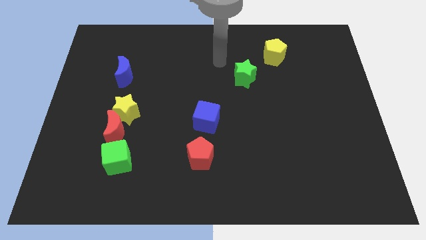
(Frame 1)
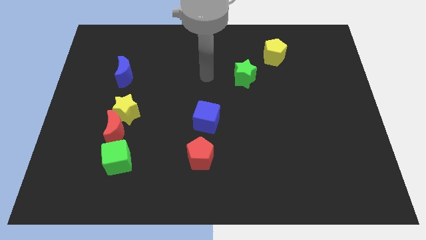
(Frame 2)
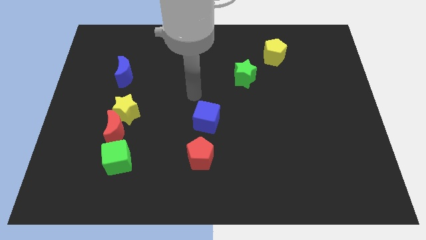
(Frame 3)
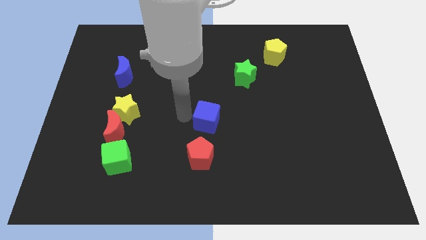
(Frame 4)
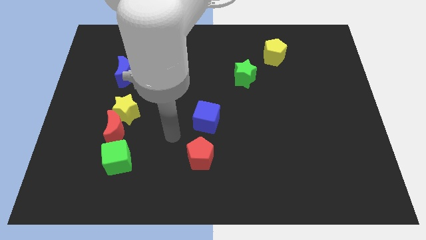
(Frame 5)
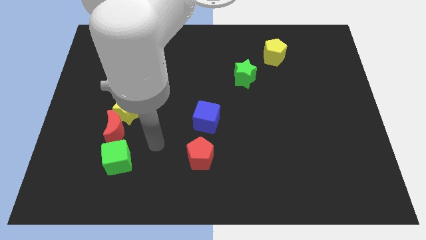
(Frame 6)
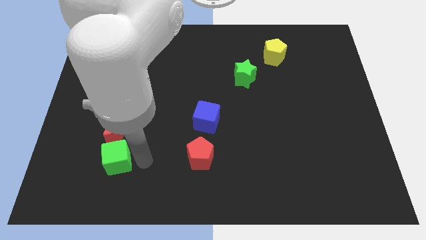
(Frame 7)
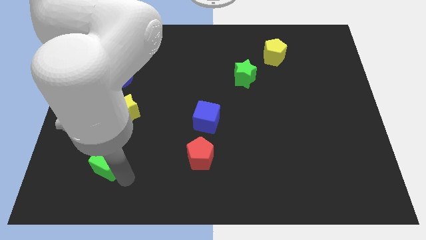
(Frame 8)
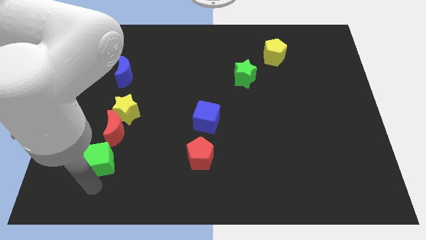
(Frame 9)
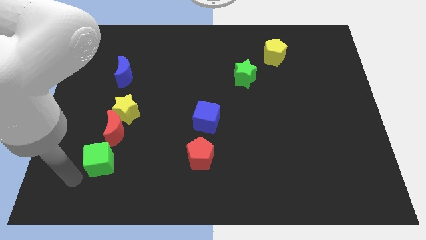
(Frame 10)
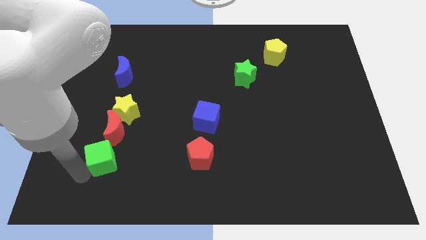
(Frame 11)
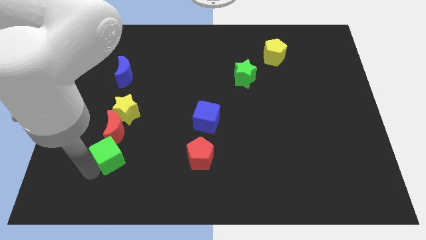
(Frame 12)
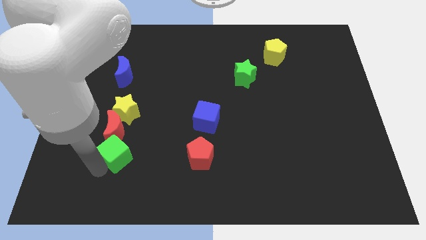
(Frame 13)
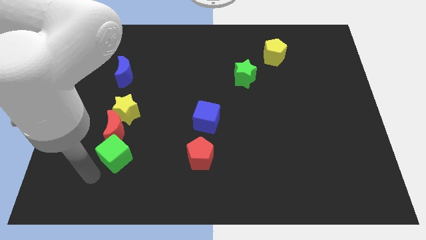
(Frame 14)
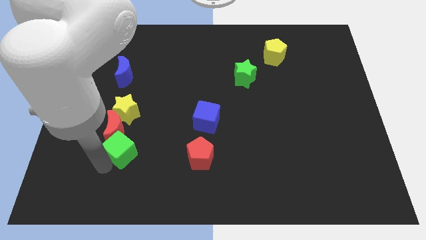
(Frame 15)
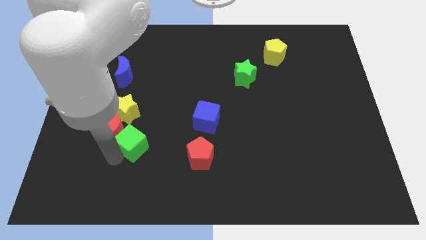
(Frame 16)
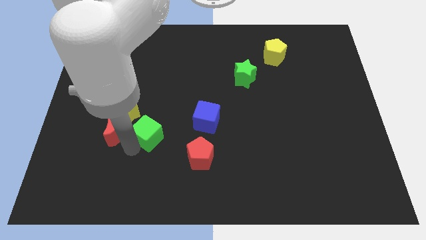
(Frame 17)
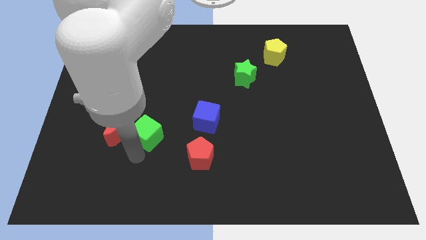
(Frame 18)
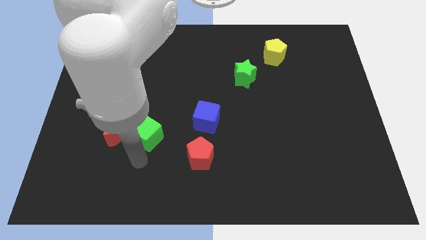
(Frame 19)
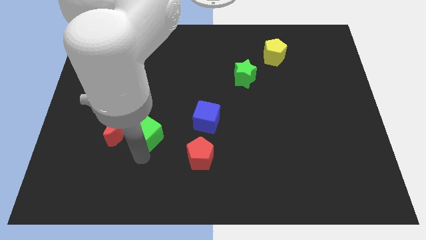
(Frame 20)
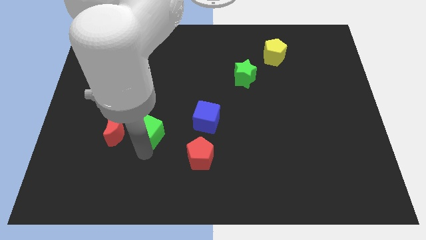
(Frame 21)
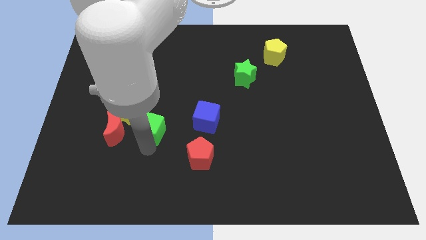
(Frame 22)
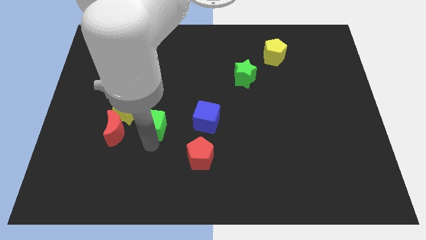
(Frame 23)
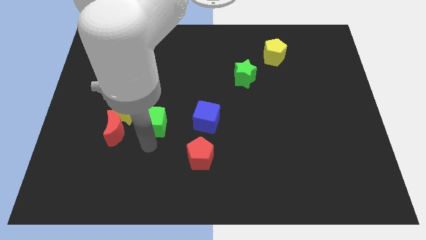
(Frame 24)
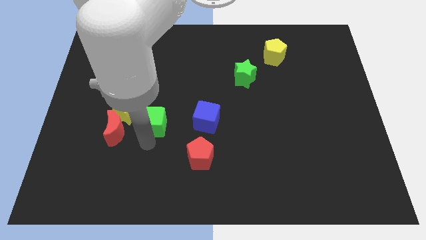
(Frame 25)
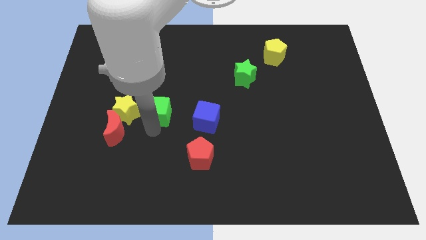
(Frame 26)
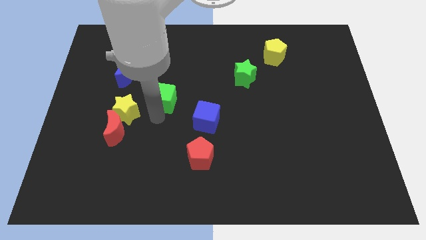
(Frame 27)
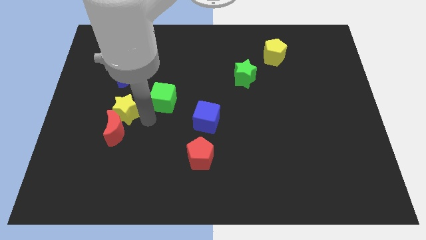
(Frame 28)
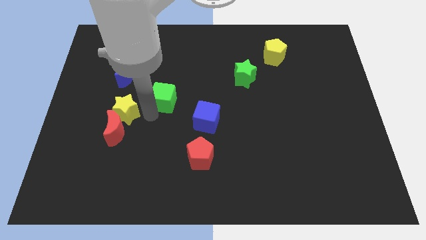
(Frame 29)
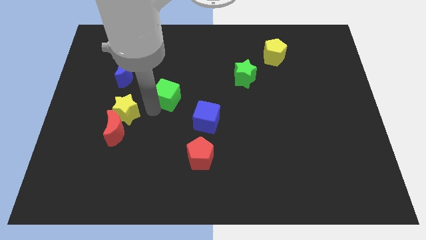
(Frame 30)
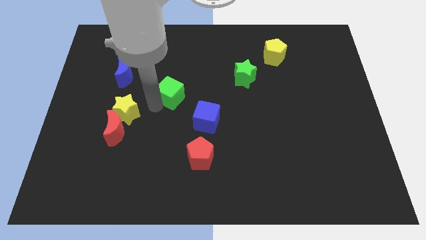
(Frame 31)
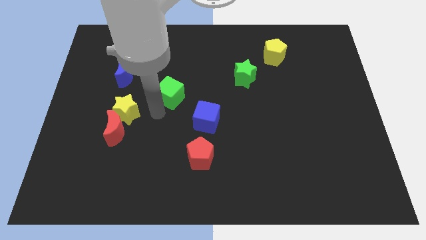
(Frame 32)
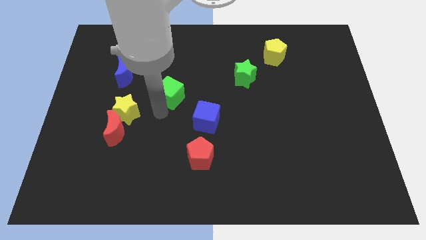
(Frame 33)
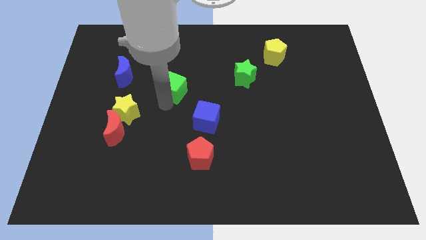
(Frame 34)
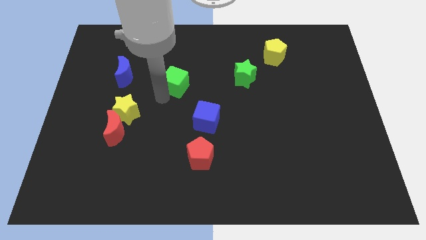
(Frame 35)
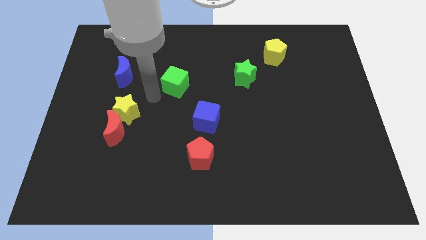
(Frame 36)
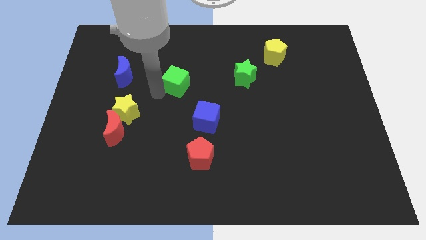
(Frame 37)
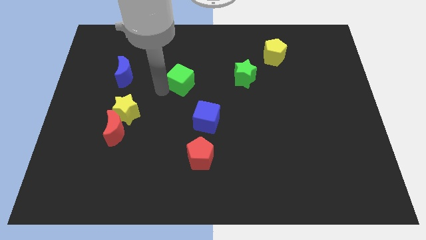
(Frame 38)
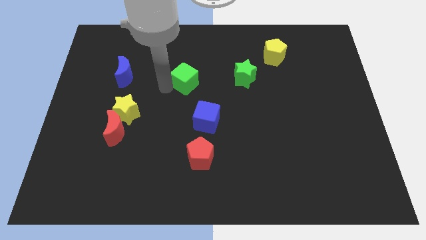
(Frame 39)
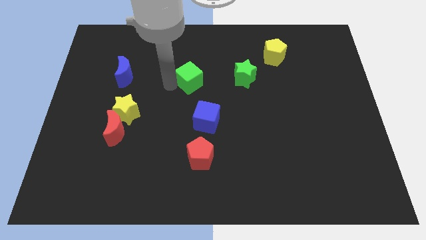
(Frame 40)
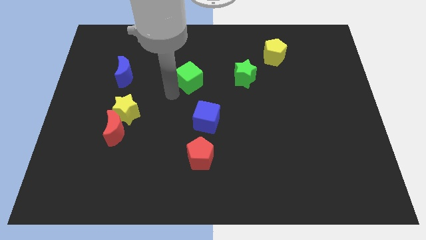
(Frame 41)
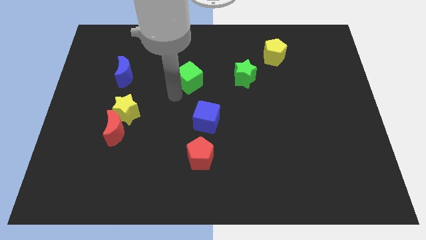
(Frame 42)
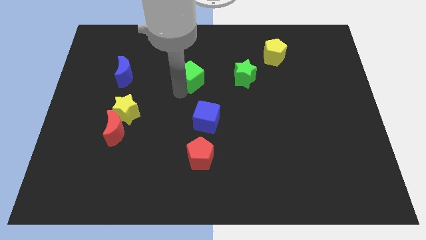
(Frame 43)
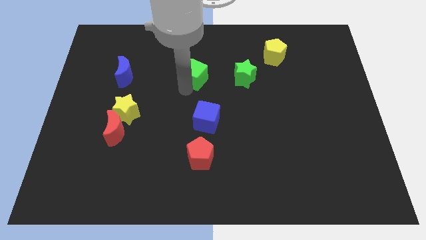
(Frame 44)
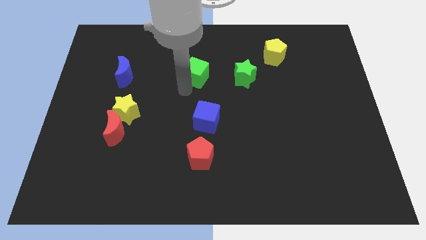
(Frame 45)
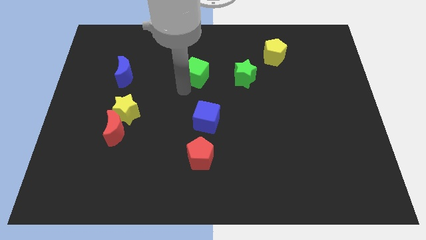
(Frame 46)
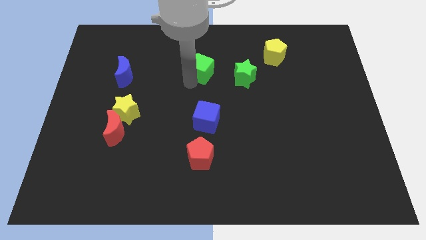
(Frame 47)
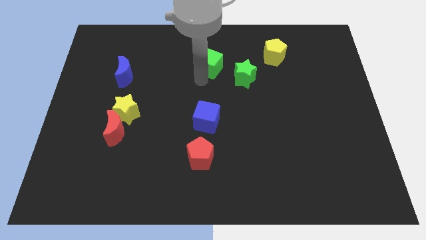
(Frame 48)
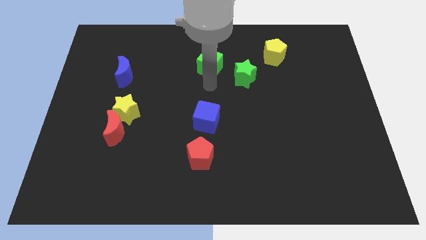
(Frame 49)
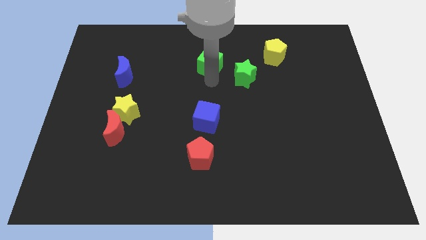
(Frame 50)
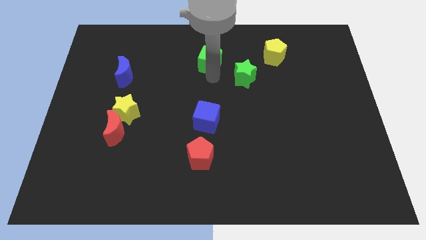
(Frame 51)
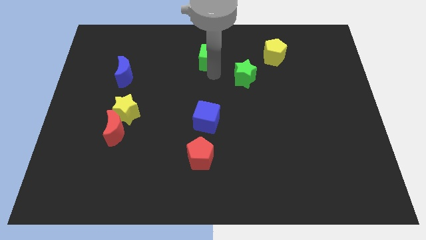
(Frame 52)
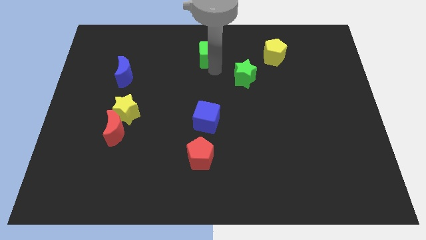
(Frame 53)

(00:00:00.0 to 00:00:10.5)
push the green cube to the top side
